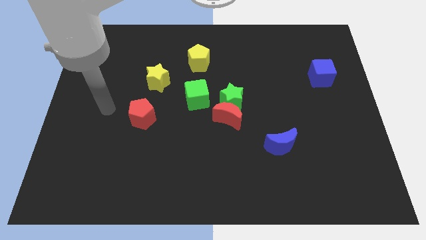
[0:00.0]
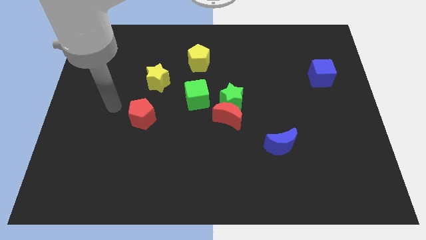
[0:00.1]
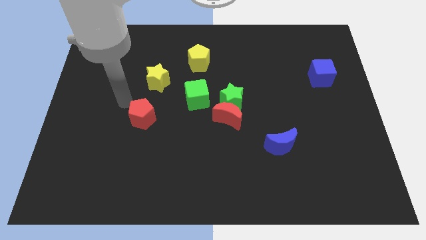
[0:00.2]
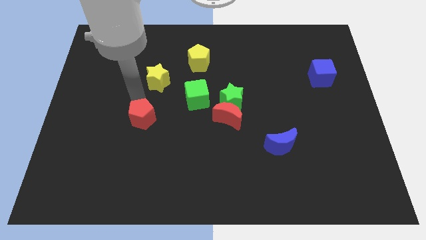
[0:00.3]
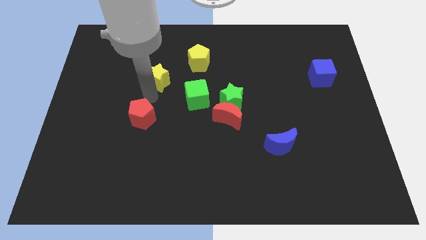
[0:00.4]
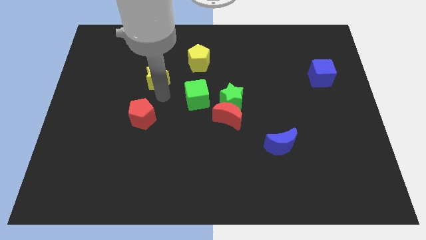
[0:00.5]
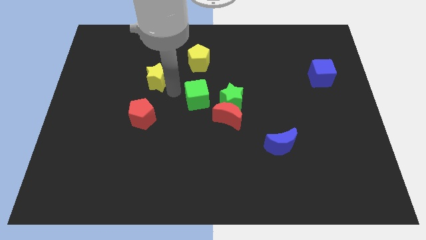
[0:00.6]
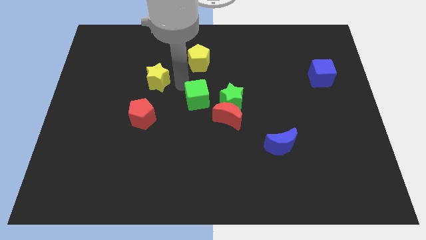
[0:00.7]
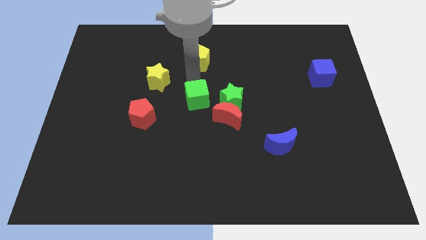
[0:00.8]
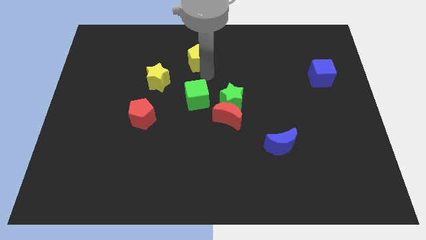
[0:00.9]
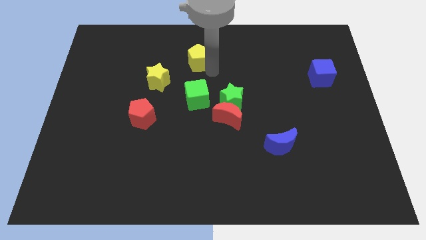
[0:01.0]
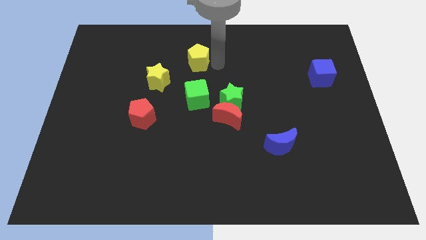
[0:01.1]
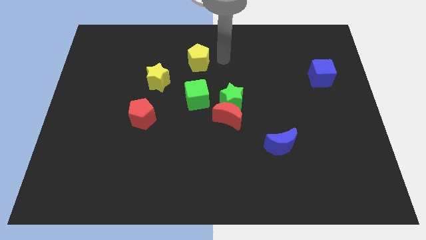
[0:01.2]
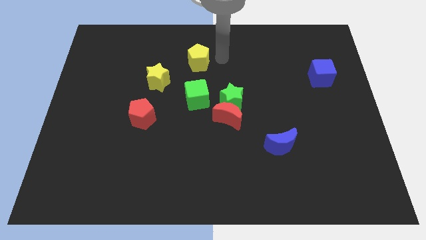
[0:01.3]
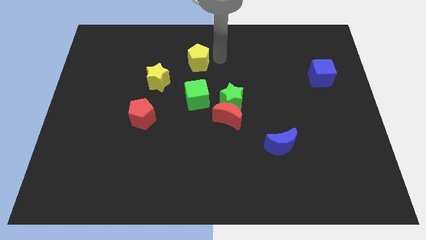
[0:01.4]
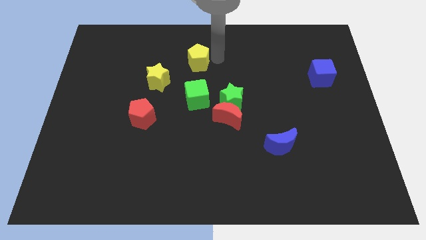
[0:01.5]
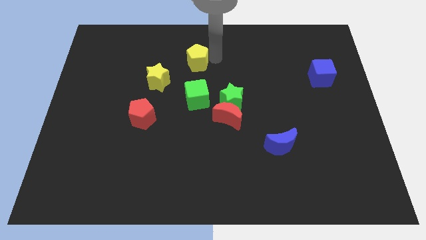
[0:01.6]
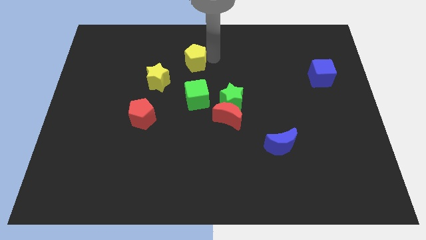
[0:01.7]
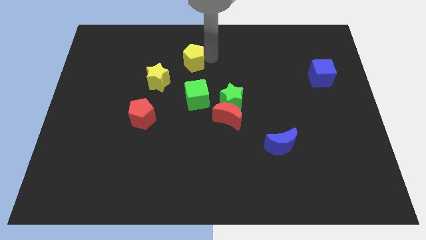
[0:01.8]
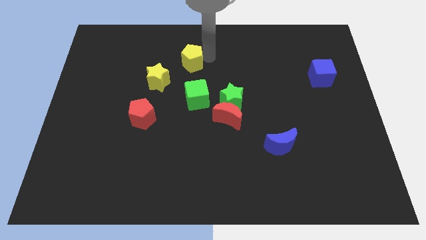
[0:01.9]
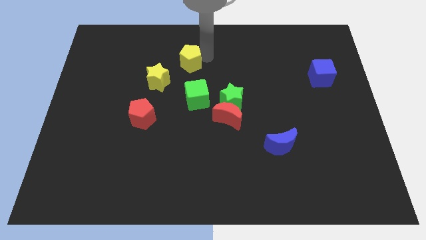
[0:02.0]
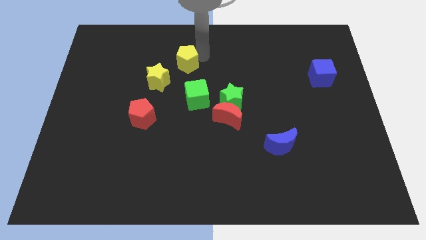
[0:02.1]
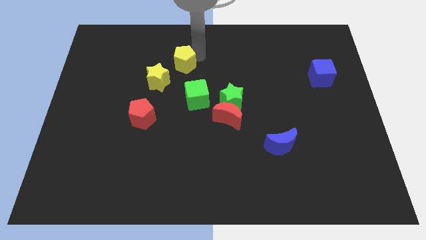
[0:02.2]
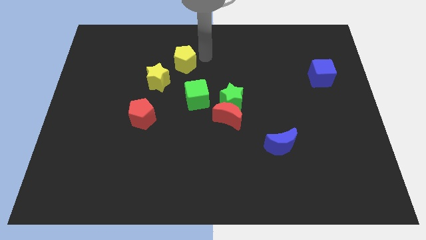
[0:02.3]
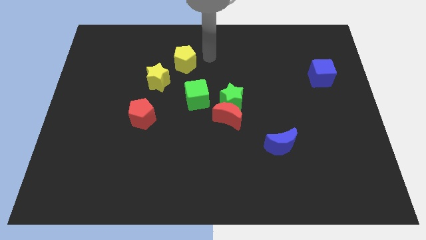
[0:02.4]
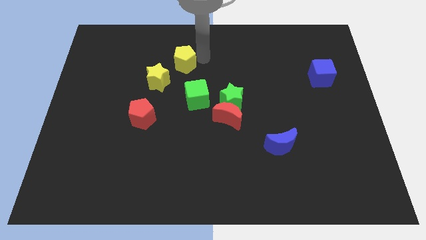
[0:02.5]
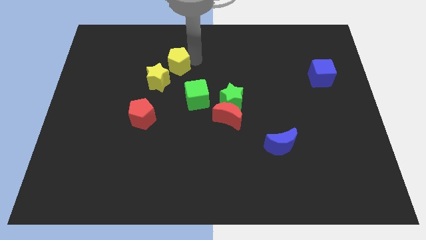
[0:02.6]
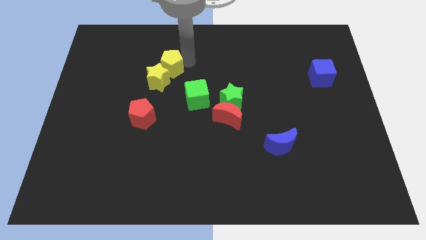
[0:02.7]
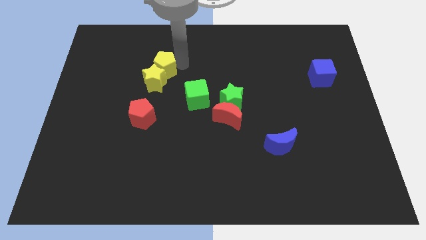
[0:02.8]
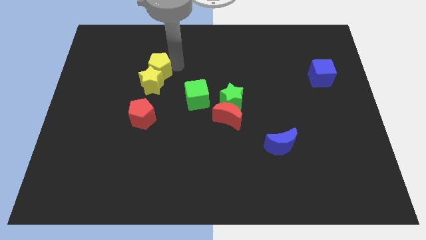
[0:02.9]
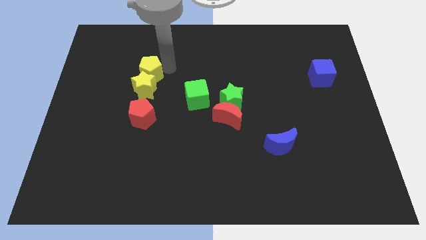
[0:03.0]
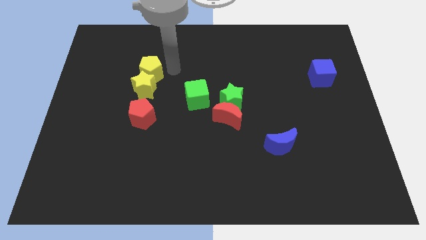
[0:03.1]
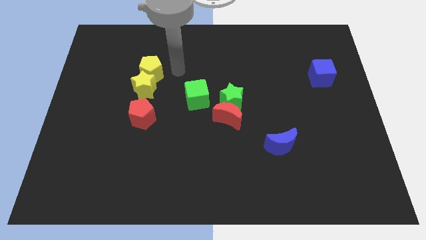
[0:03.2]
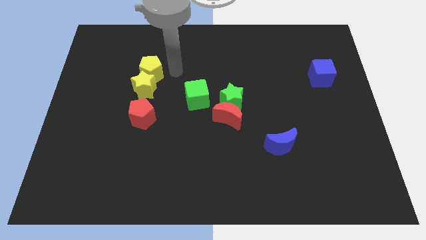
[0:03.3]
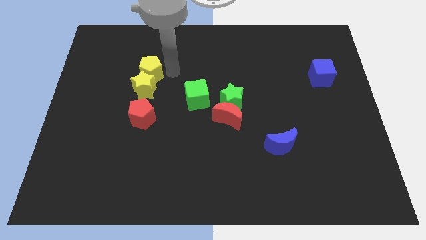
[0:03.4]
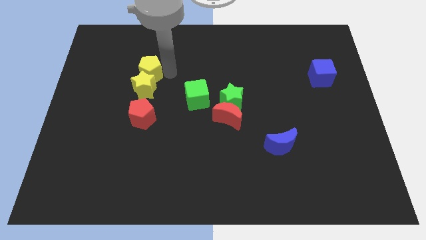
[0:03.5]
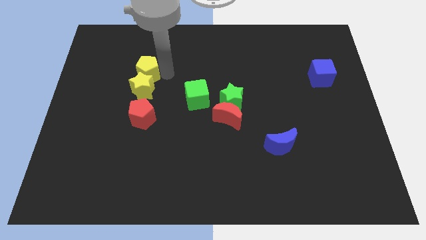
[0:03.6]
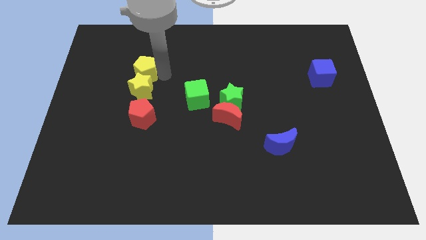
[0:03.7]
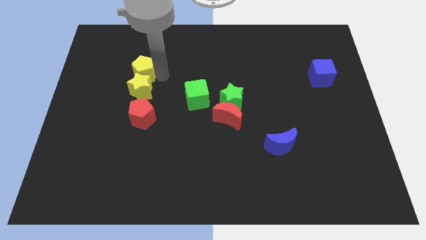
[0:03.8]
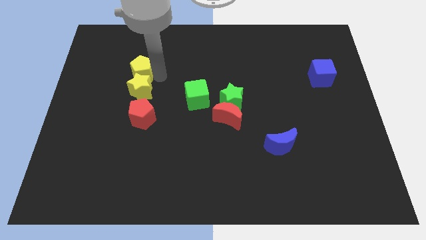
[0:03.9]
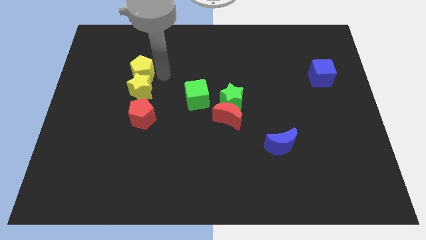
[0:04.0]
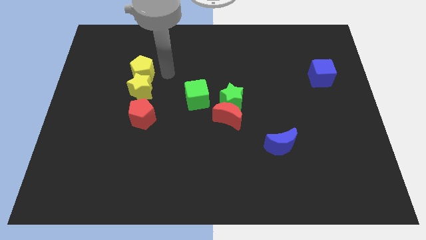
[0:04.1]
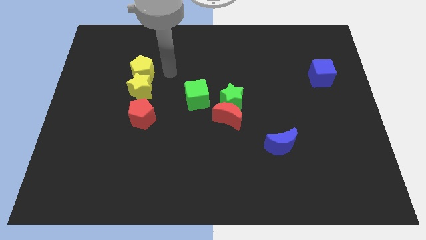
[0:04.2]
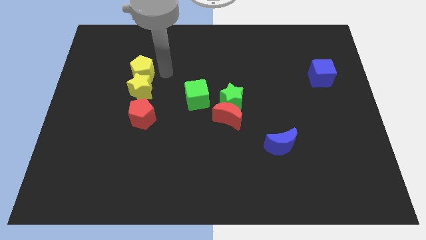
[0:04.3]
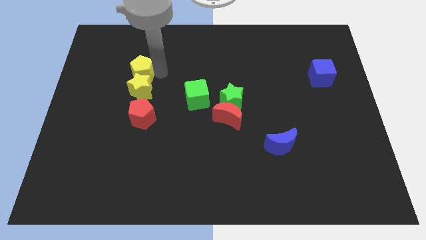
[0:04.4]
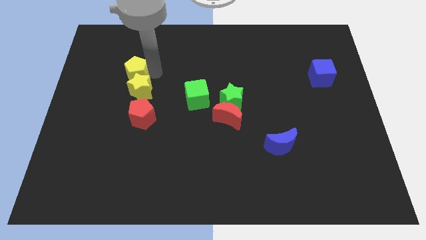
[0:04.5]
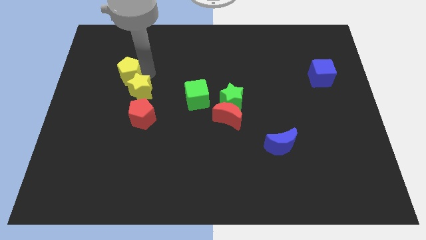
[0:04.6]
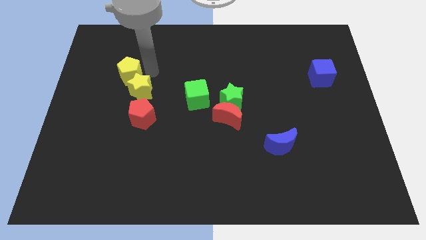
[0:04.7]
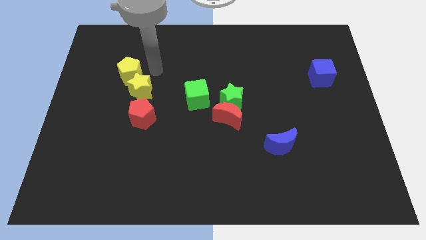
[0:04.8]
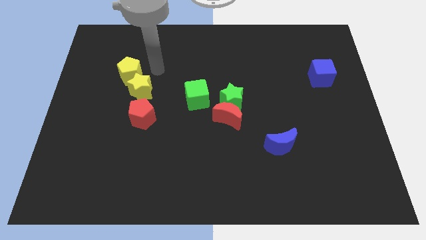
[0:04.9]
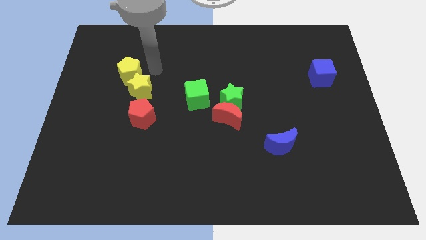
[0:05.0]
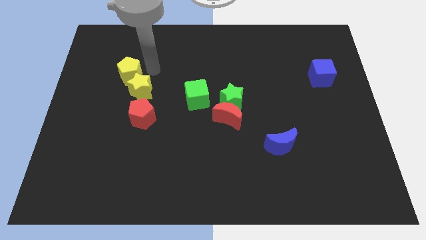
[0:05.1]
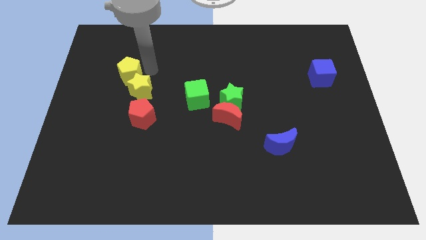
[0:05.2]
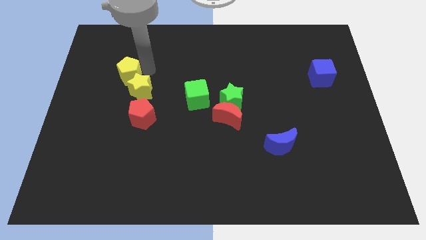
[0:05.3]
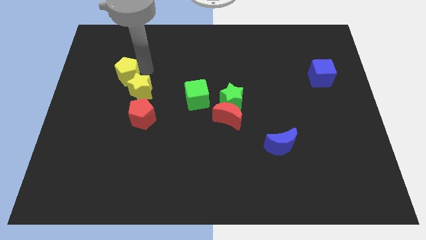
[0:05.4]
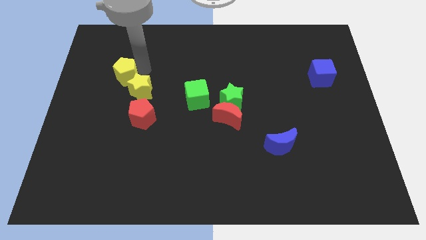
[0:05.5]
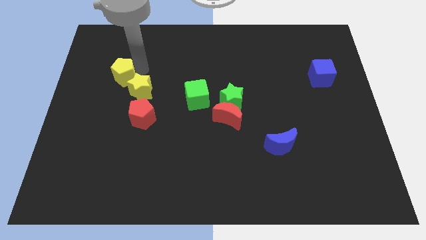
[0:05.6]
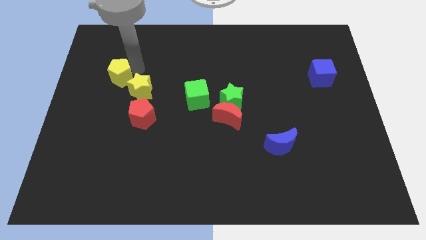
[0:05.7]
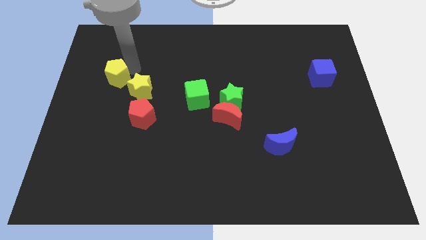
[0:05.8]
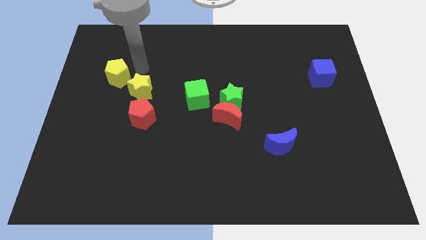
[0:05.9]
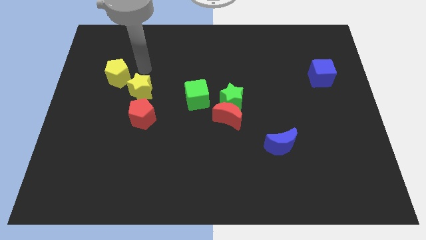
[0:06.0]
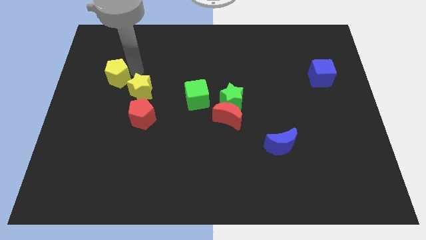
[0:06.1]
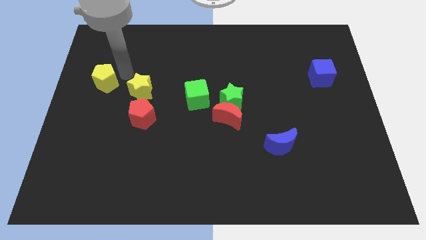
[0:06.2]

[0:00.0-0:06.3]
move the yellow pentagon to the left side of the board
